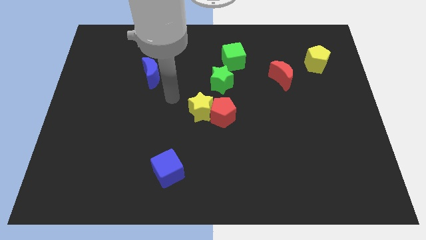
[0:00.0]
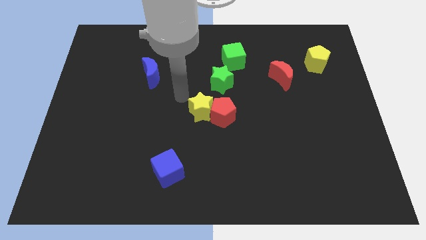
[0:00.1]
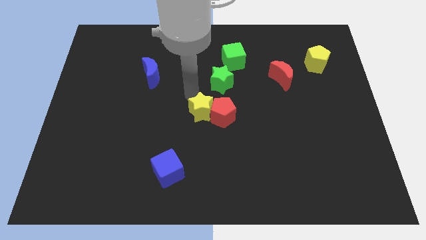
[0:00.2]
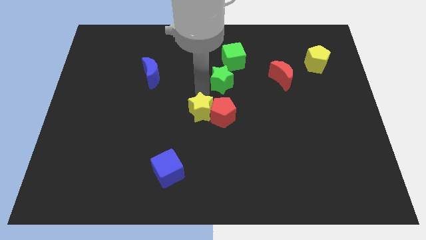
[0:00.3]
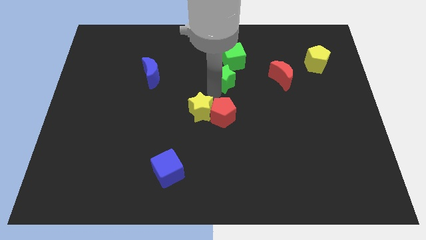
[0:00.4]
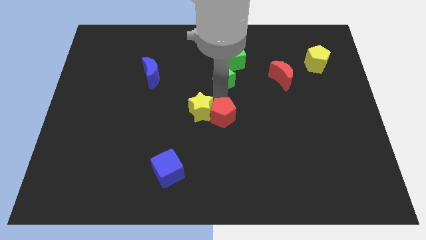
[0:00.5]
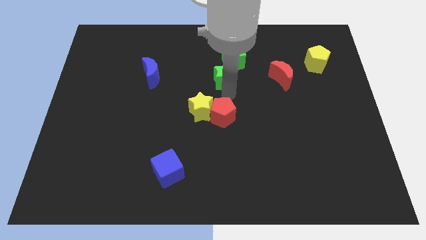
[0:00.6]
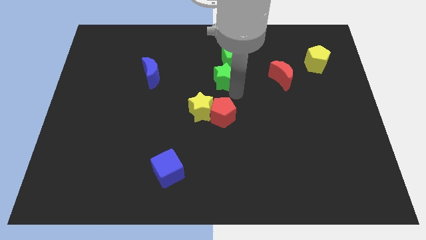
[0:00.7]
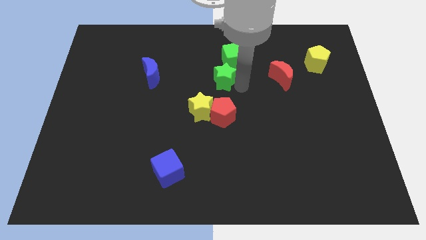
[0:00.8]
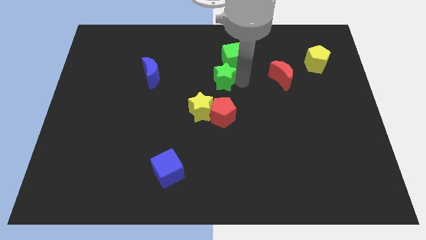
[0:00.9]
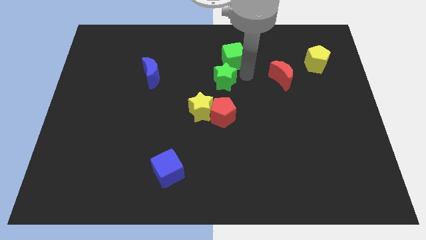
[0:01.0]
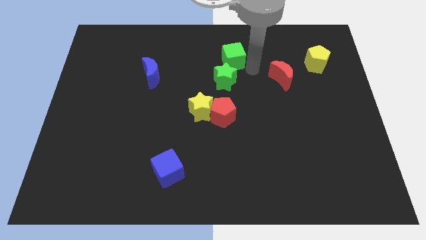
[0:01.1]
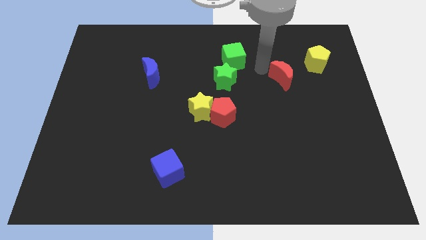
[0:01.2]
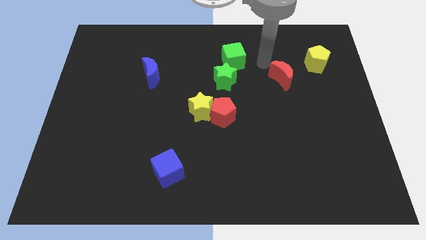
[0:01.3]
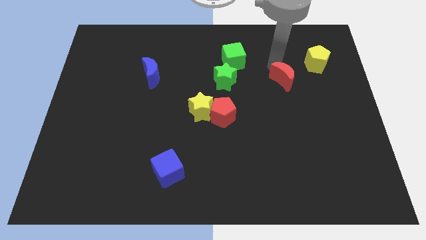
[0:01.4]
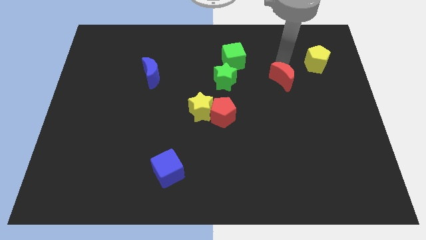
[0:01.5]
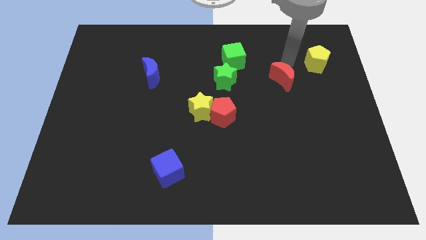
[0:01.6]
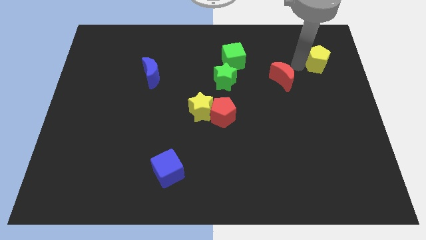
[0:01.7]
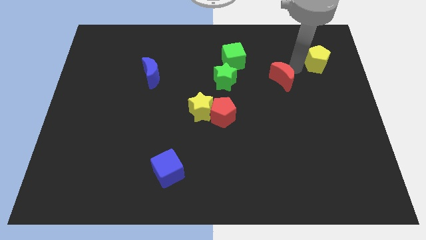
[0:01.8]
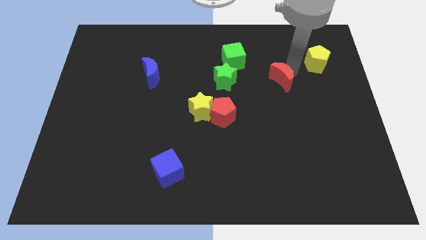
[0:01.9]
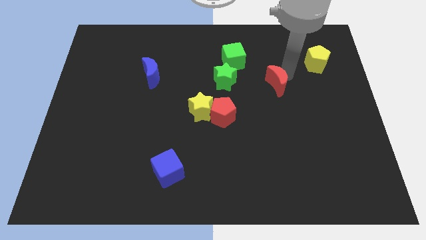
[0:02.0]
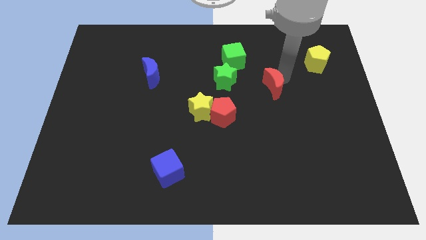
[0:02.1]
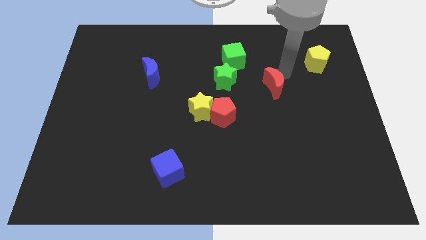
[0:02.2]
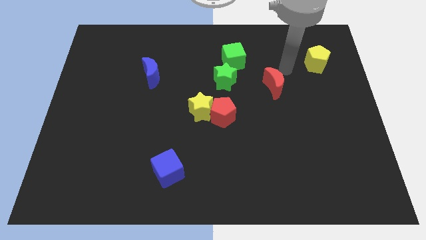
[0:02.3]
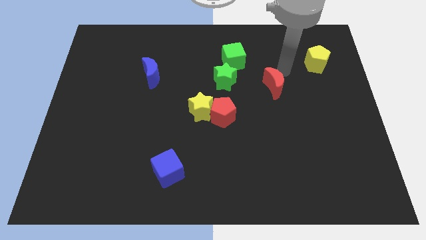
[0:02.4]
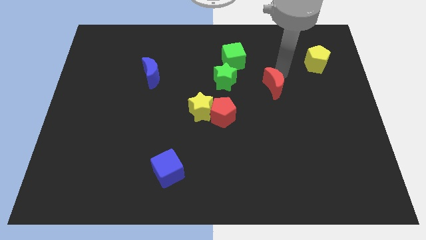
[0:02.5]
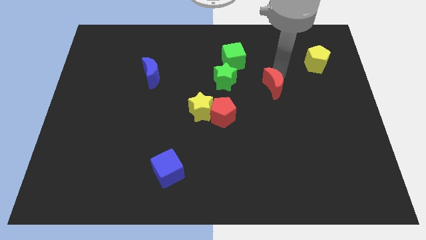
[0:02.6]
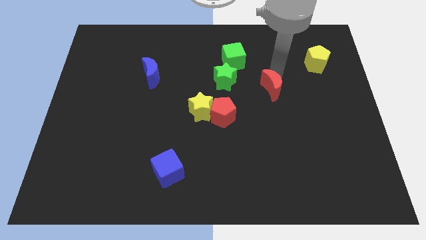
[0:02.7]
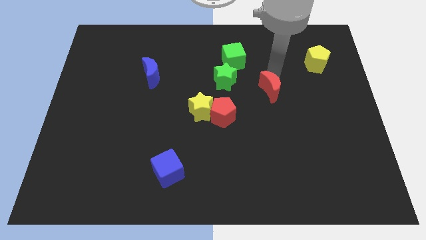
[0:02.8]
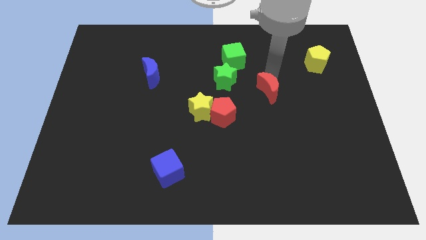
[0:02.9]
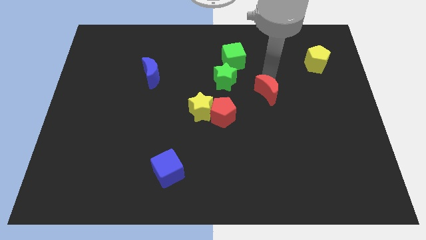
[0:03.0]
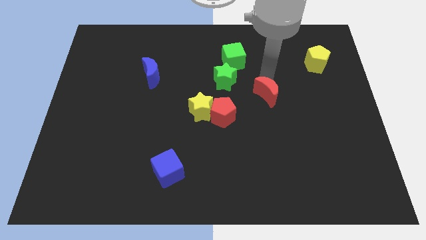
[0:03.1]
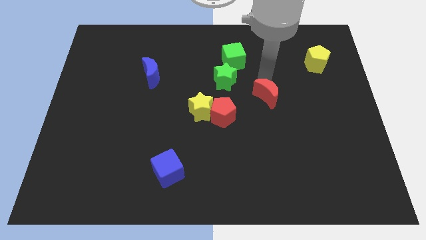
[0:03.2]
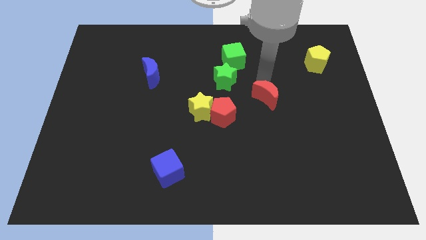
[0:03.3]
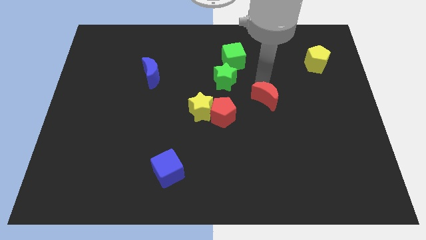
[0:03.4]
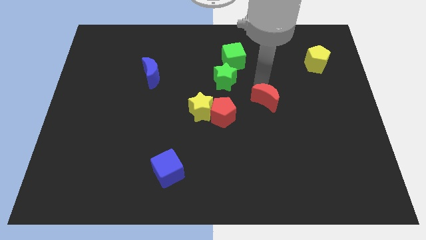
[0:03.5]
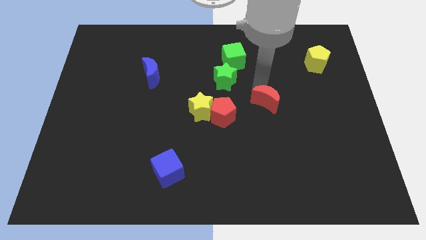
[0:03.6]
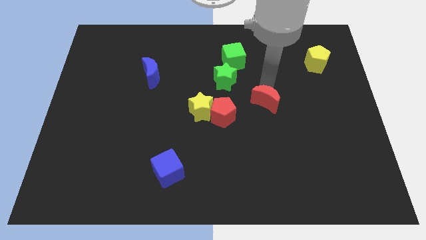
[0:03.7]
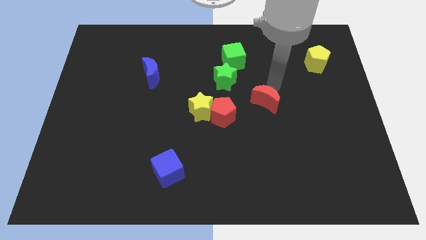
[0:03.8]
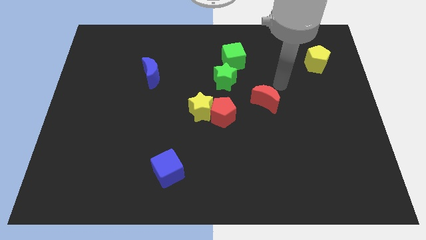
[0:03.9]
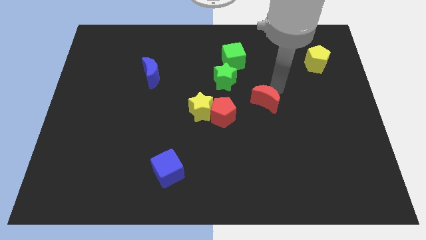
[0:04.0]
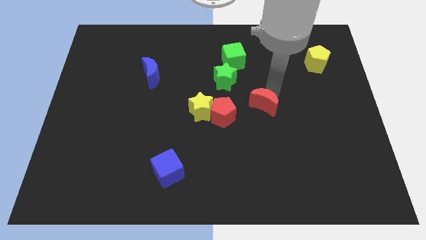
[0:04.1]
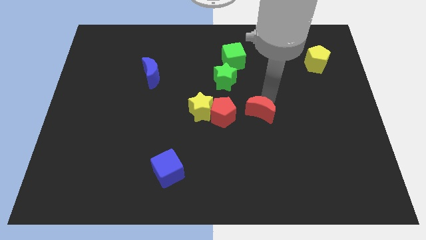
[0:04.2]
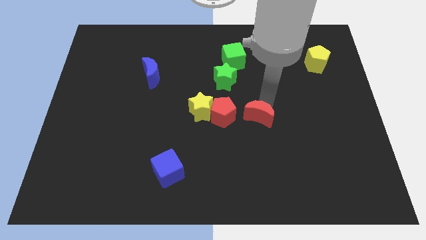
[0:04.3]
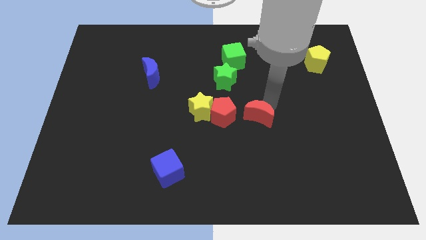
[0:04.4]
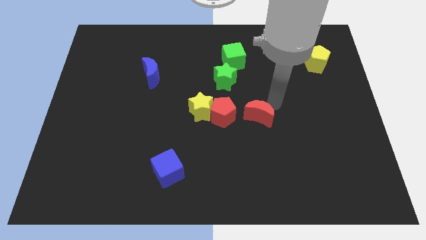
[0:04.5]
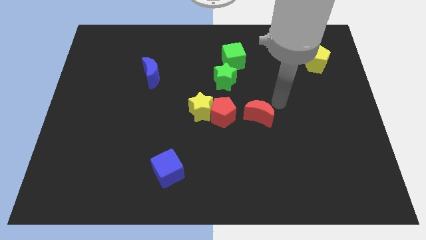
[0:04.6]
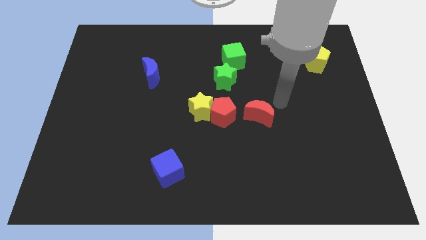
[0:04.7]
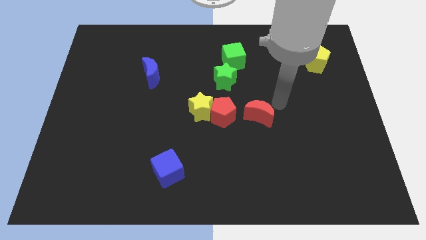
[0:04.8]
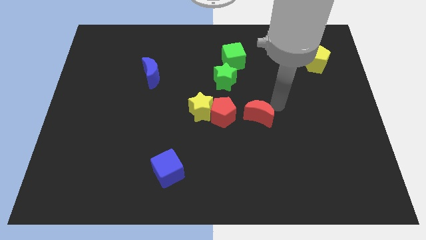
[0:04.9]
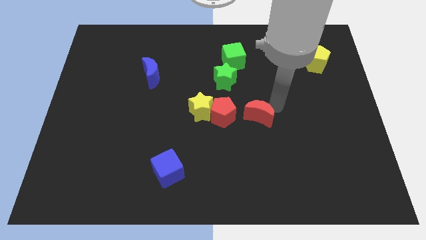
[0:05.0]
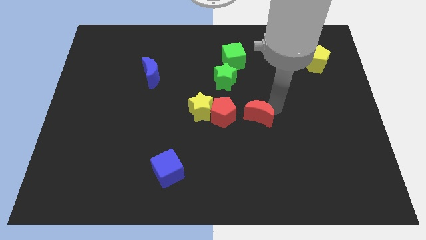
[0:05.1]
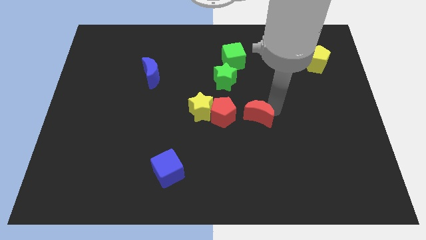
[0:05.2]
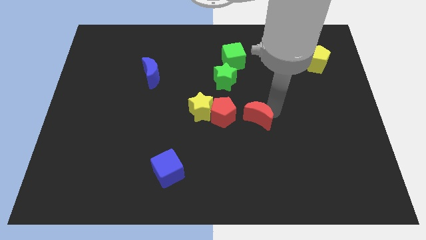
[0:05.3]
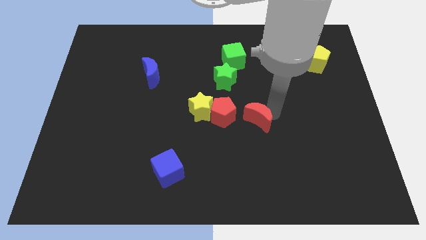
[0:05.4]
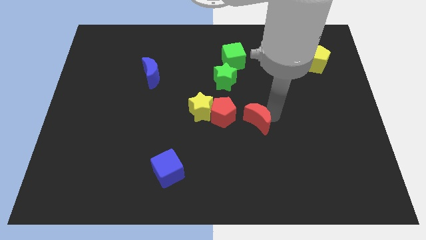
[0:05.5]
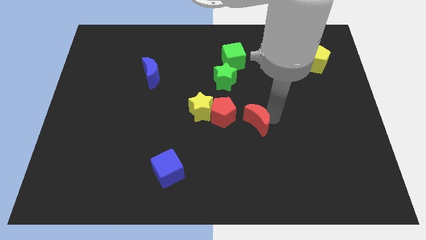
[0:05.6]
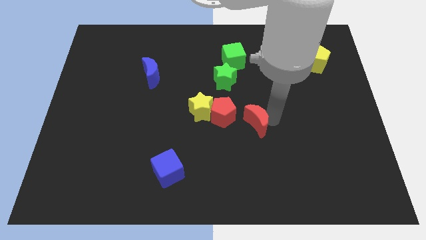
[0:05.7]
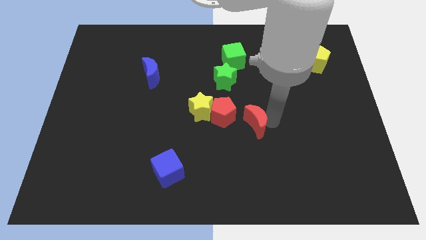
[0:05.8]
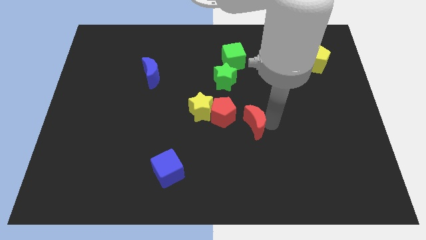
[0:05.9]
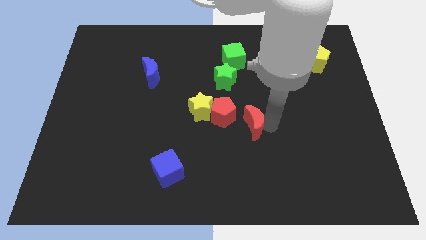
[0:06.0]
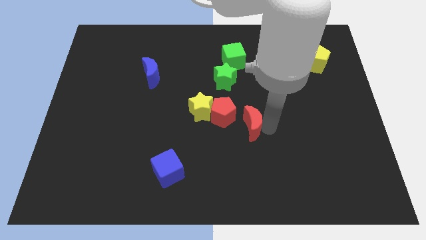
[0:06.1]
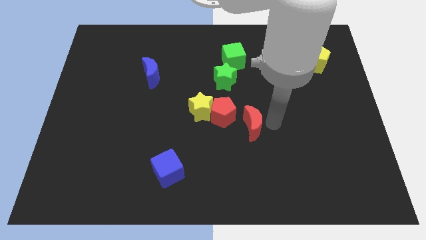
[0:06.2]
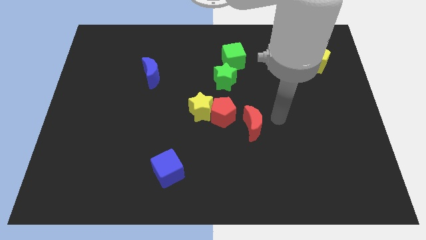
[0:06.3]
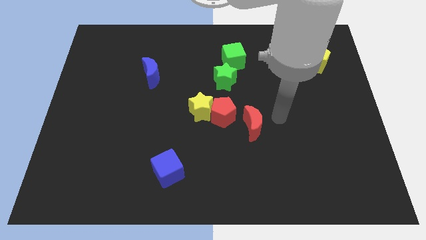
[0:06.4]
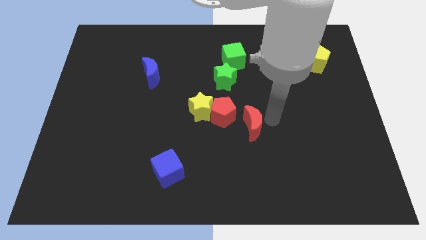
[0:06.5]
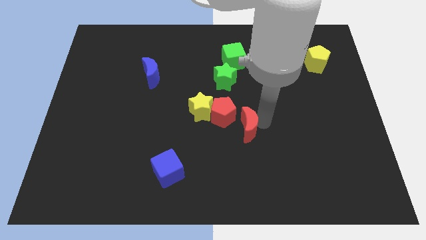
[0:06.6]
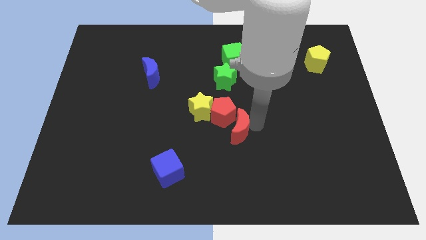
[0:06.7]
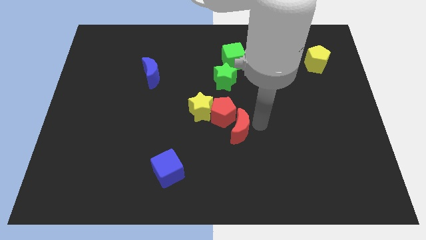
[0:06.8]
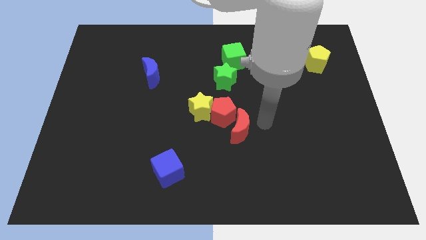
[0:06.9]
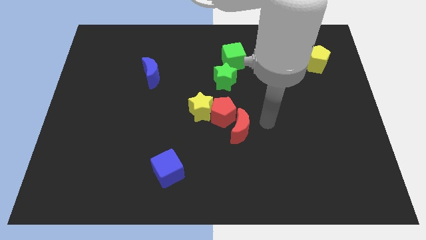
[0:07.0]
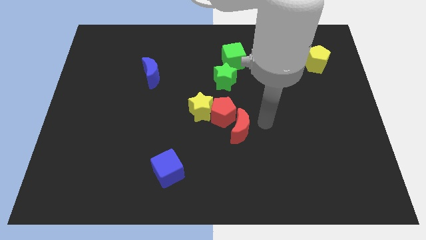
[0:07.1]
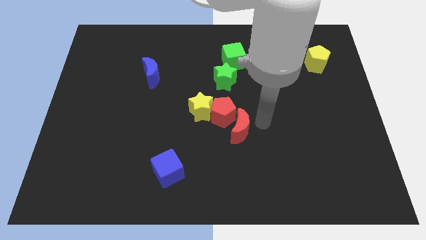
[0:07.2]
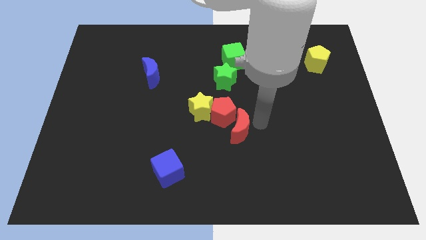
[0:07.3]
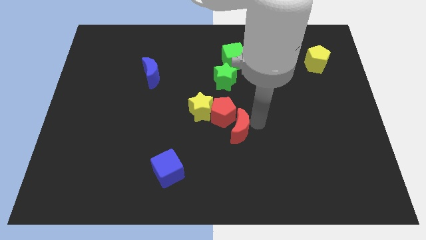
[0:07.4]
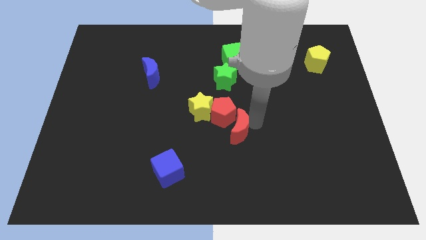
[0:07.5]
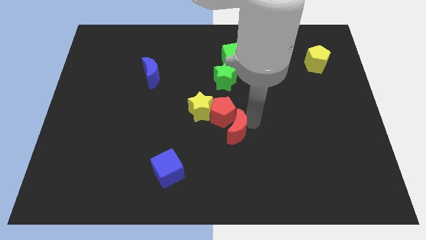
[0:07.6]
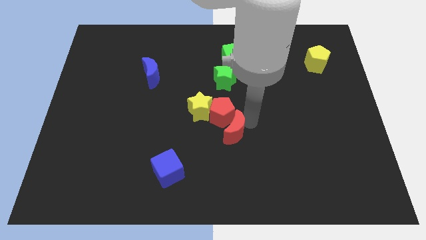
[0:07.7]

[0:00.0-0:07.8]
slide the red moon downwards and to the left

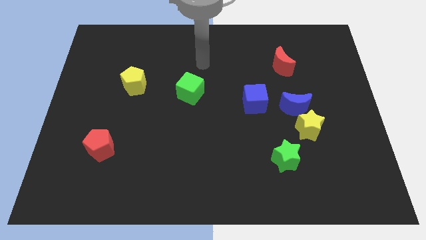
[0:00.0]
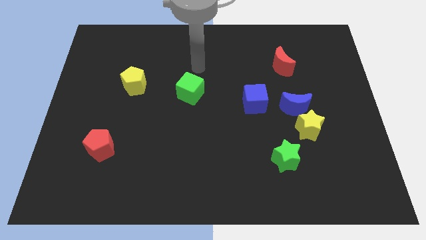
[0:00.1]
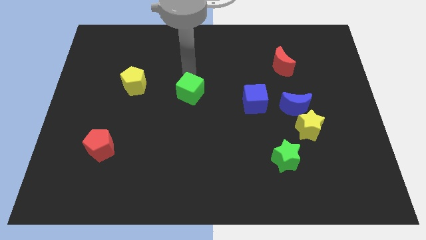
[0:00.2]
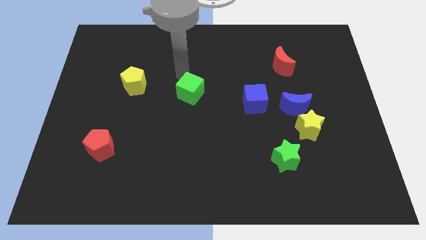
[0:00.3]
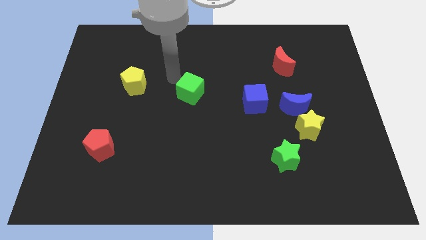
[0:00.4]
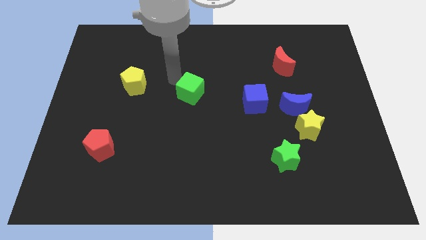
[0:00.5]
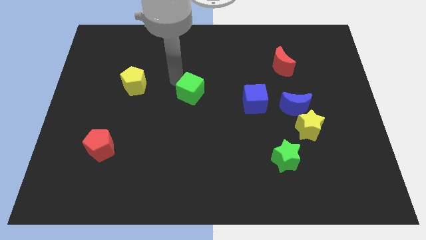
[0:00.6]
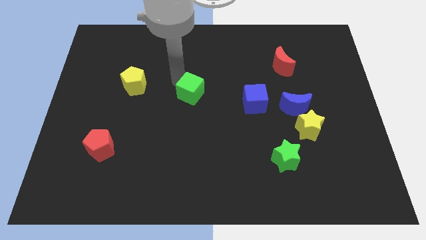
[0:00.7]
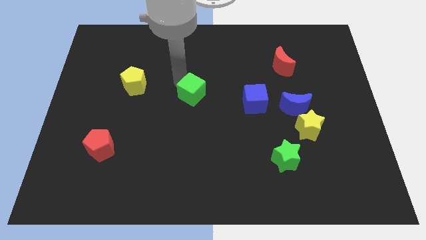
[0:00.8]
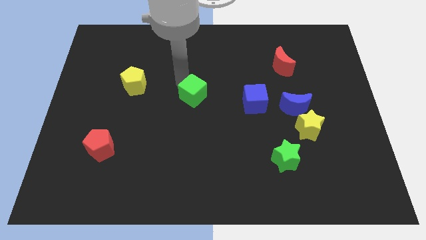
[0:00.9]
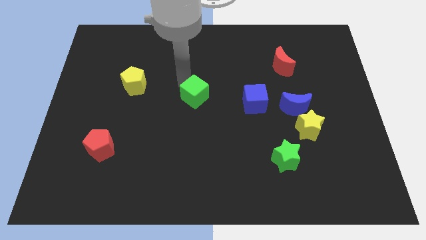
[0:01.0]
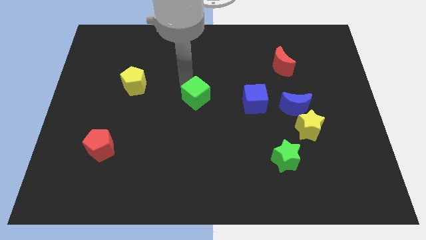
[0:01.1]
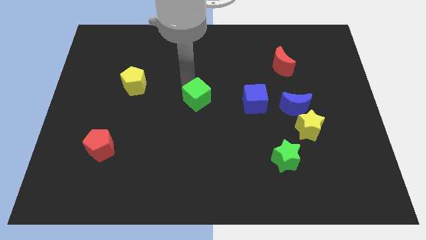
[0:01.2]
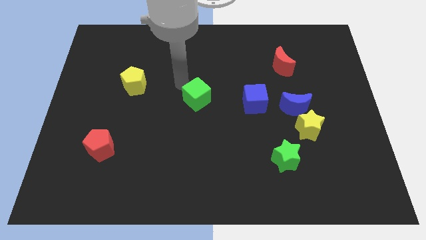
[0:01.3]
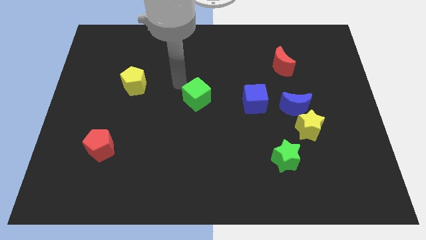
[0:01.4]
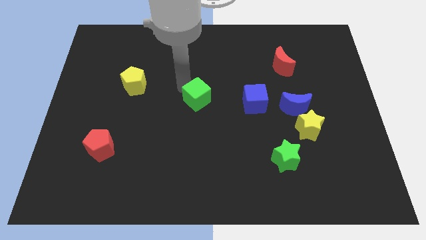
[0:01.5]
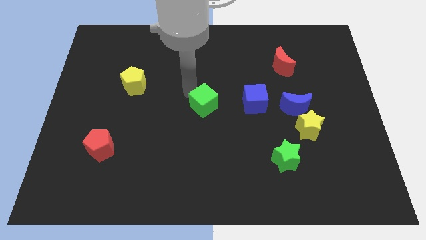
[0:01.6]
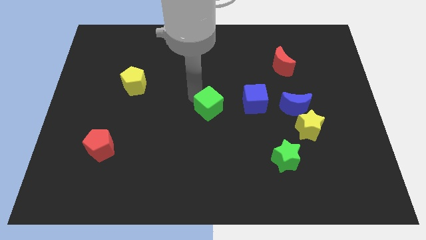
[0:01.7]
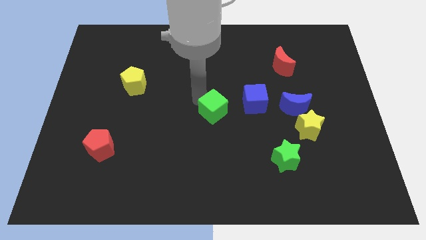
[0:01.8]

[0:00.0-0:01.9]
slide the green cube a little down and to the right diagonally
